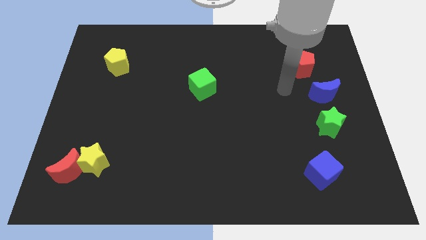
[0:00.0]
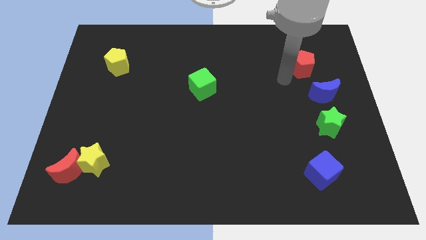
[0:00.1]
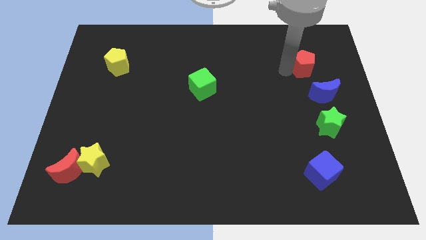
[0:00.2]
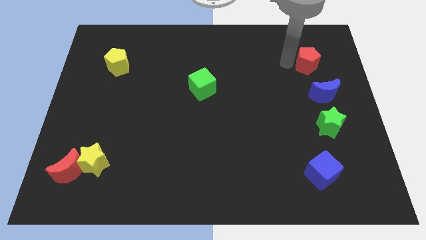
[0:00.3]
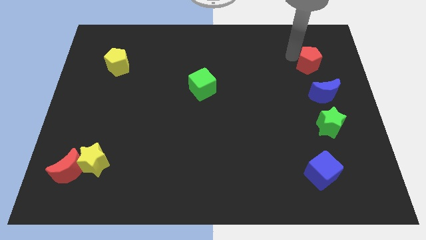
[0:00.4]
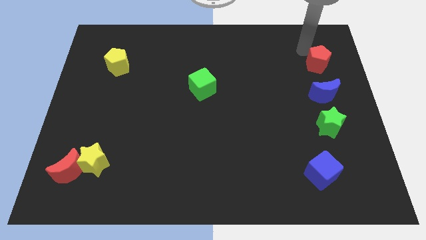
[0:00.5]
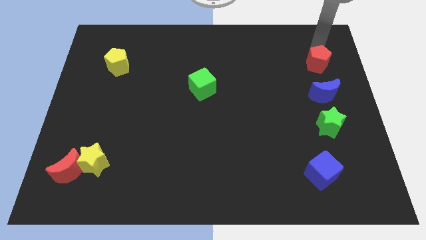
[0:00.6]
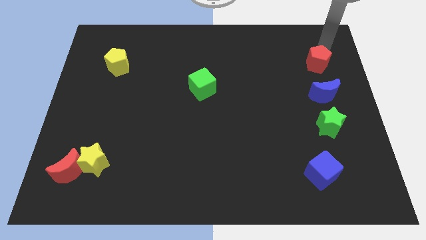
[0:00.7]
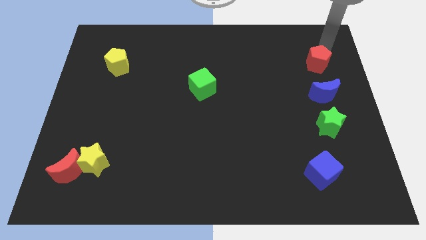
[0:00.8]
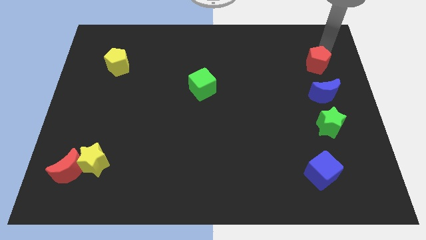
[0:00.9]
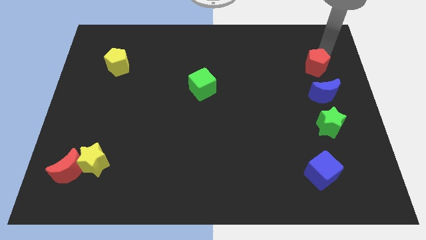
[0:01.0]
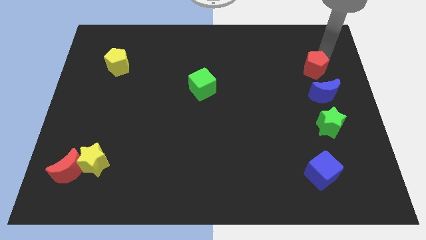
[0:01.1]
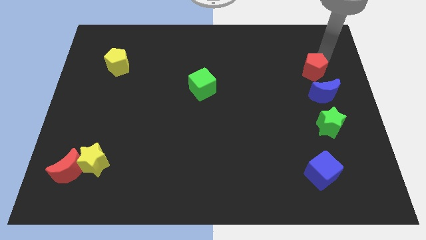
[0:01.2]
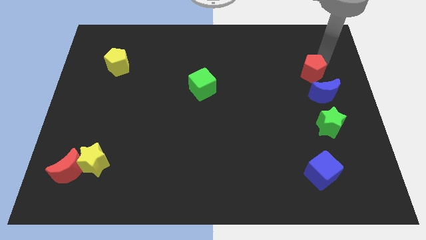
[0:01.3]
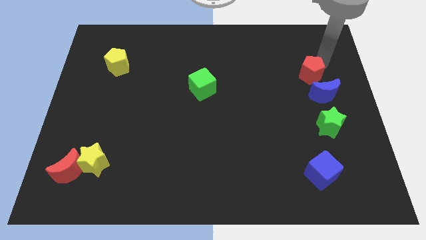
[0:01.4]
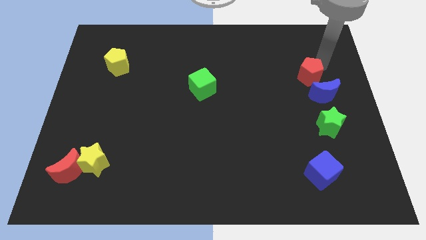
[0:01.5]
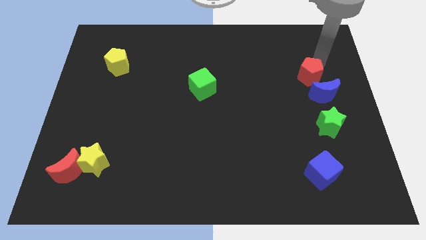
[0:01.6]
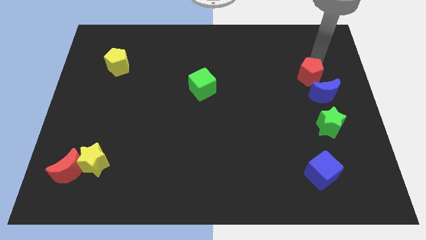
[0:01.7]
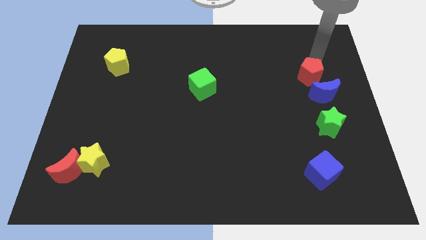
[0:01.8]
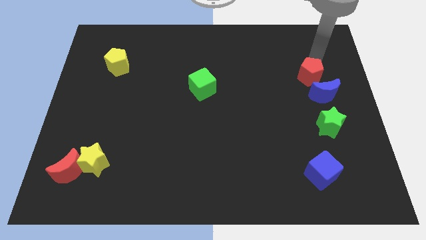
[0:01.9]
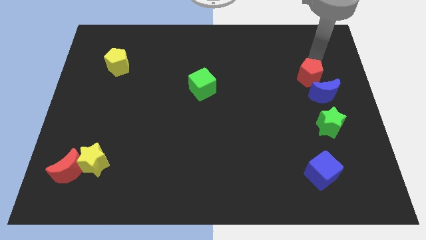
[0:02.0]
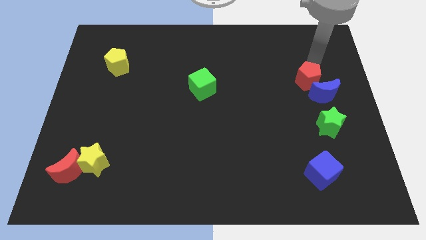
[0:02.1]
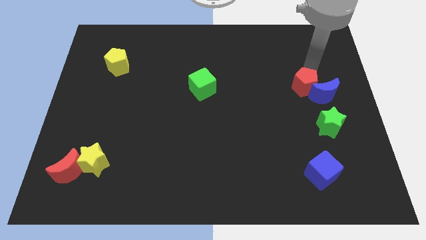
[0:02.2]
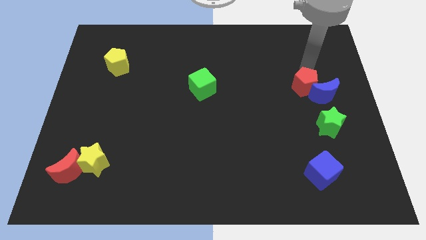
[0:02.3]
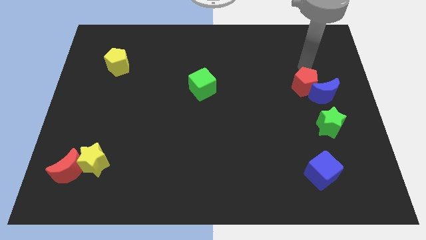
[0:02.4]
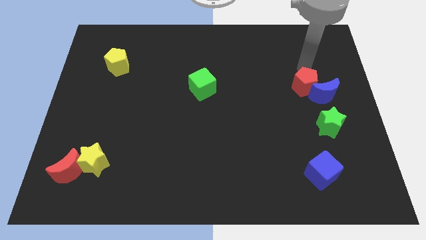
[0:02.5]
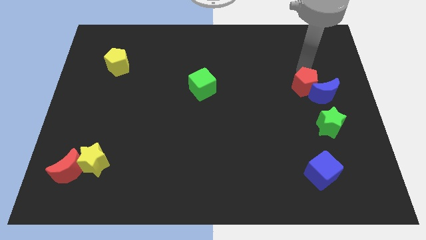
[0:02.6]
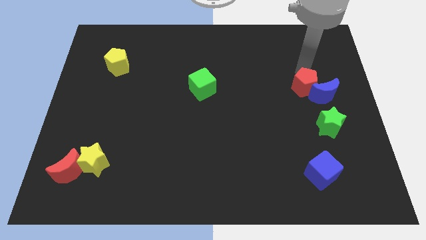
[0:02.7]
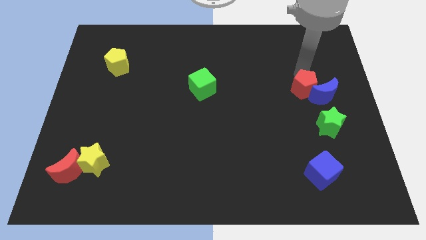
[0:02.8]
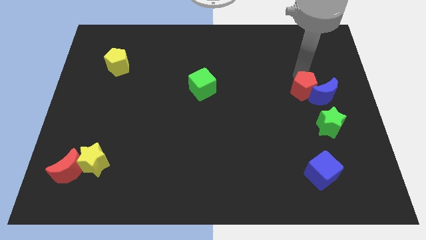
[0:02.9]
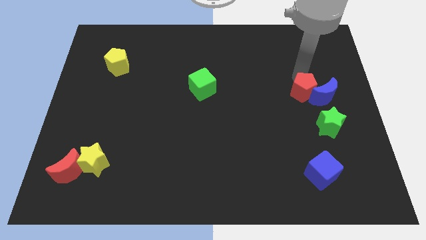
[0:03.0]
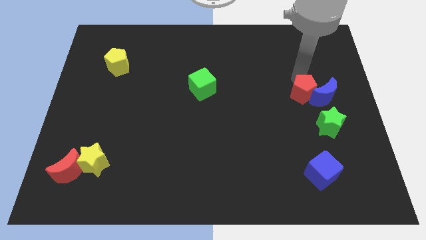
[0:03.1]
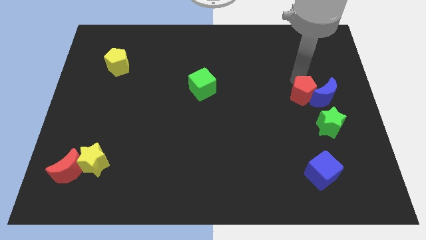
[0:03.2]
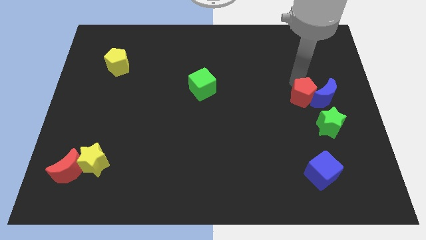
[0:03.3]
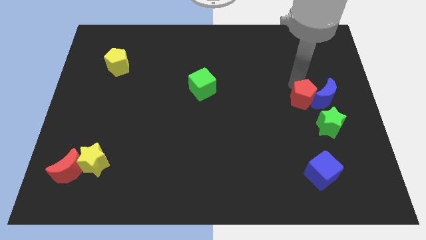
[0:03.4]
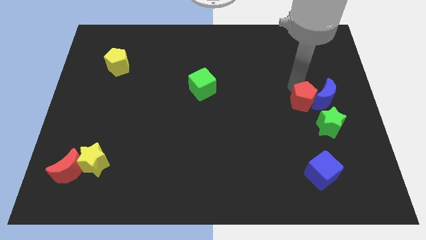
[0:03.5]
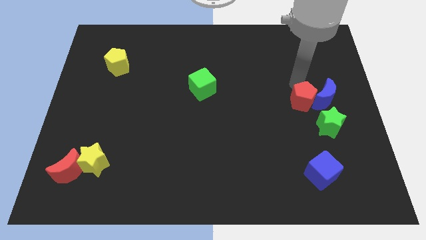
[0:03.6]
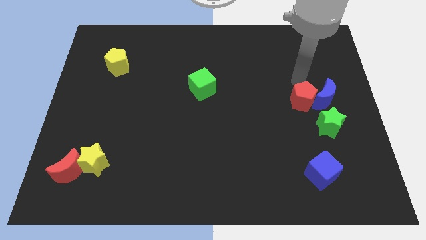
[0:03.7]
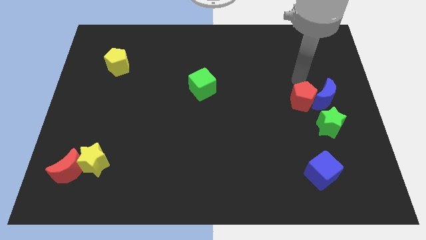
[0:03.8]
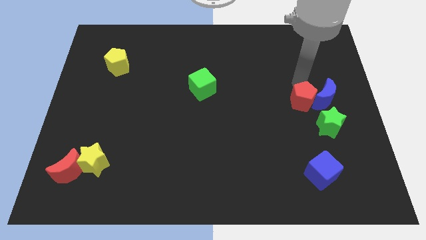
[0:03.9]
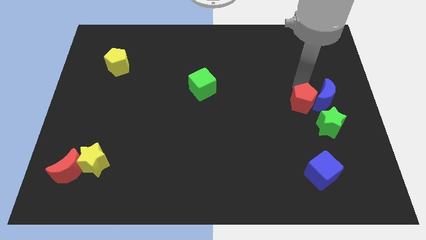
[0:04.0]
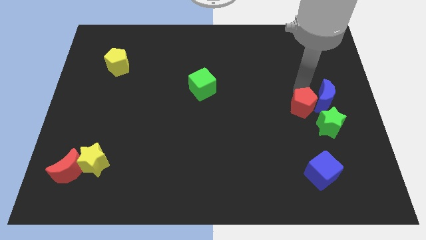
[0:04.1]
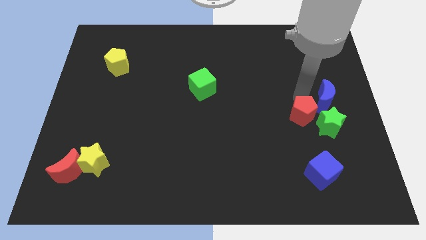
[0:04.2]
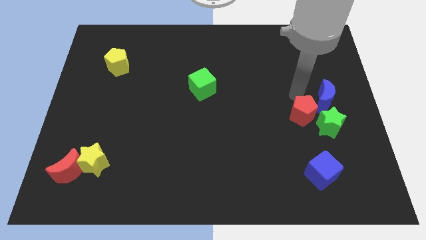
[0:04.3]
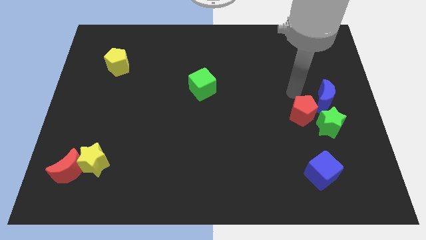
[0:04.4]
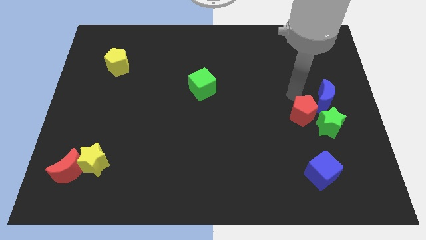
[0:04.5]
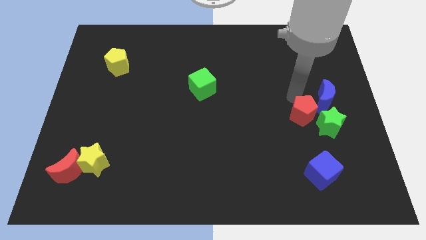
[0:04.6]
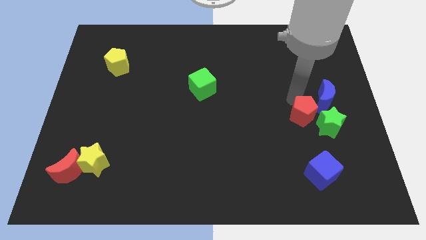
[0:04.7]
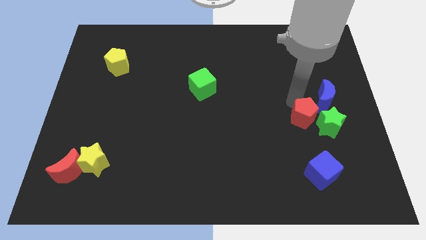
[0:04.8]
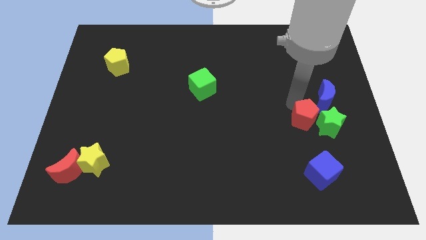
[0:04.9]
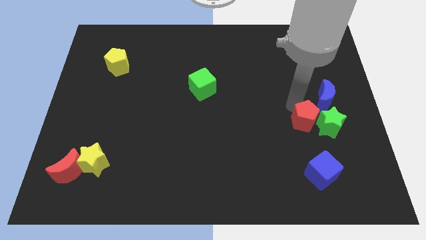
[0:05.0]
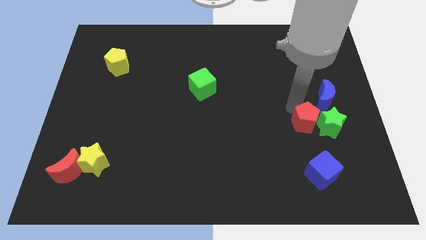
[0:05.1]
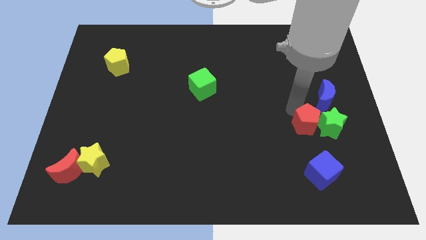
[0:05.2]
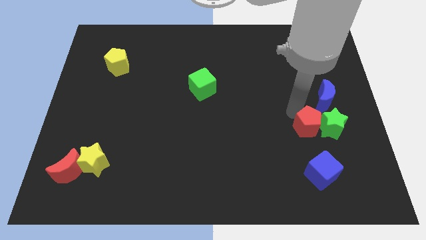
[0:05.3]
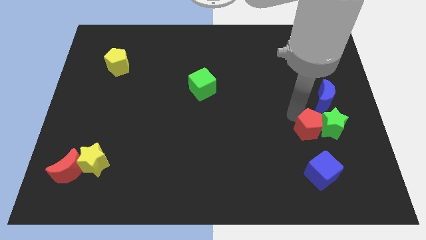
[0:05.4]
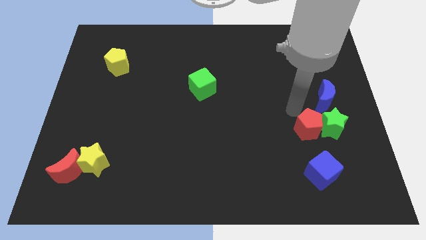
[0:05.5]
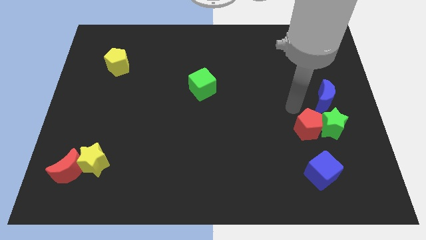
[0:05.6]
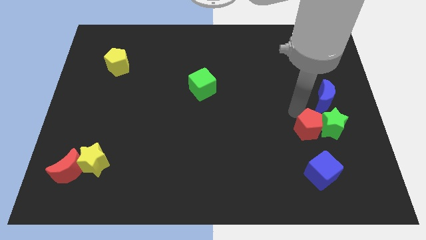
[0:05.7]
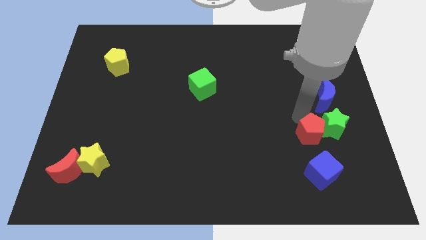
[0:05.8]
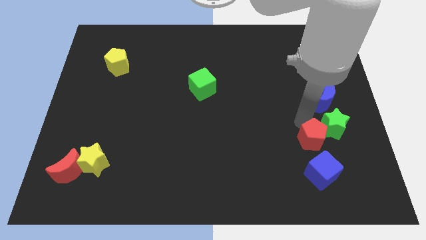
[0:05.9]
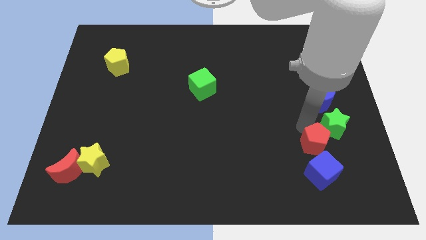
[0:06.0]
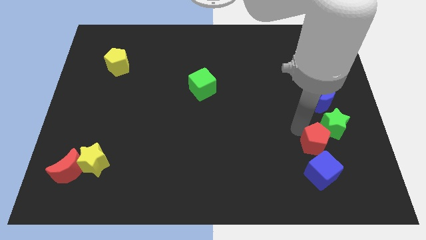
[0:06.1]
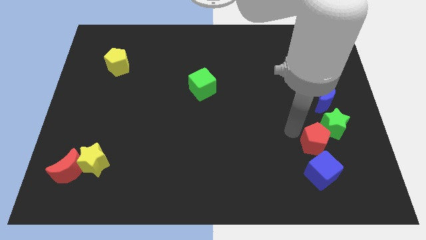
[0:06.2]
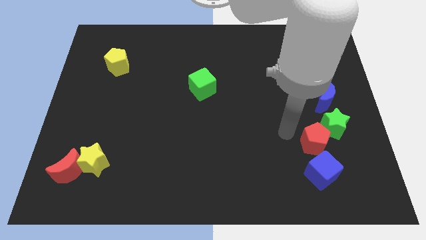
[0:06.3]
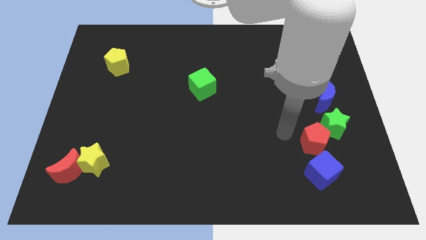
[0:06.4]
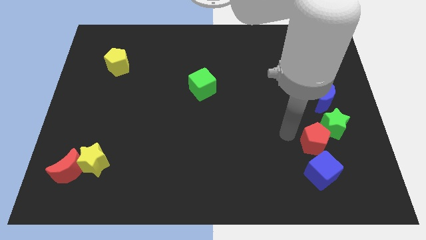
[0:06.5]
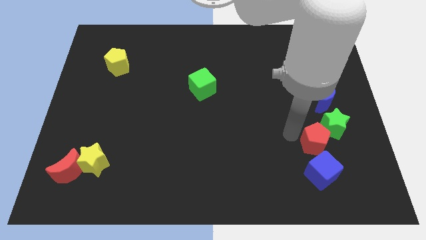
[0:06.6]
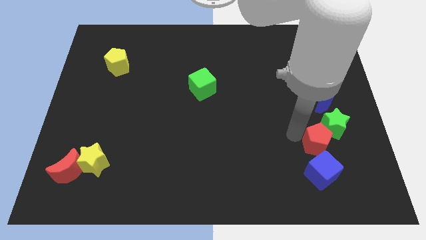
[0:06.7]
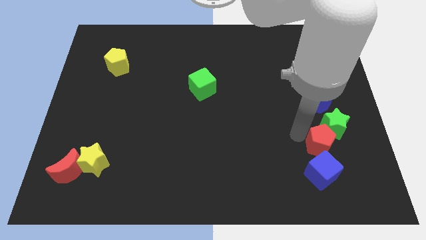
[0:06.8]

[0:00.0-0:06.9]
slide the red pentagon to the top right of the blue cube

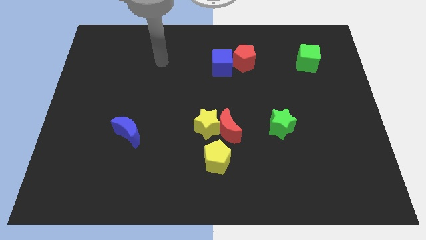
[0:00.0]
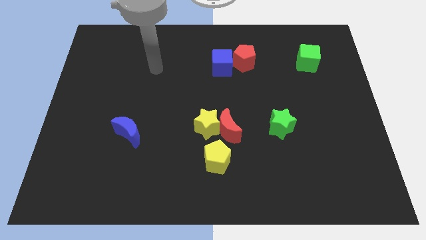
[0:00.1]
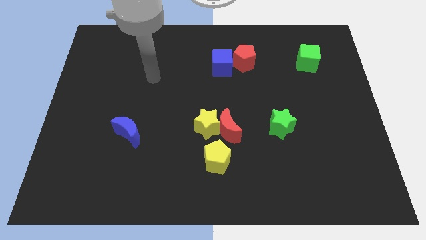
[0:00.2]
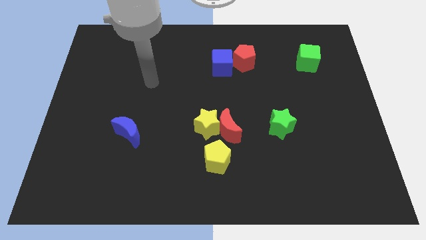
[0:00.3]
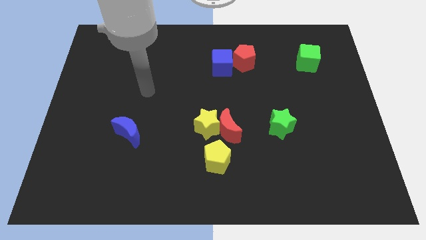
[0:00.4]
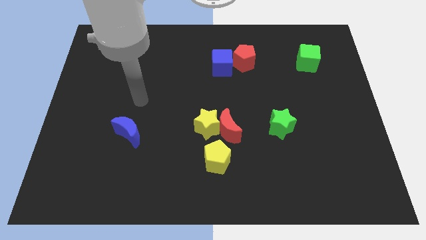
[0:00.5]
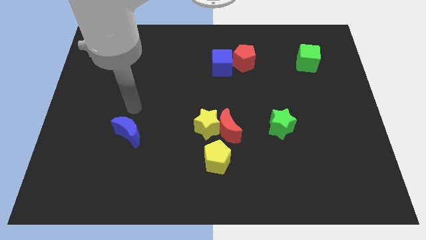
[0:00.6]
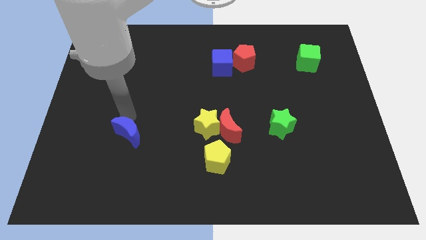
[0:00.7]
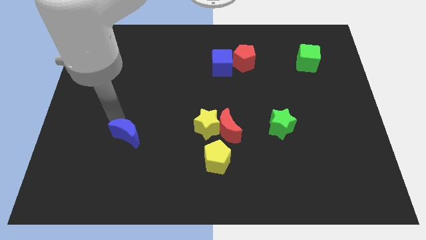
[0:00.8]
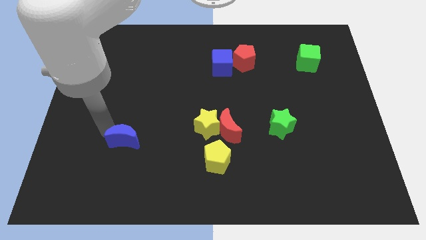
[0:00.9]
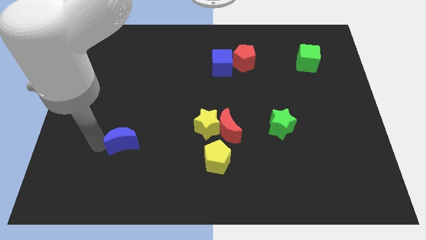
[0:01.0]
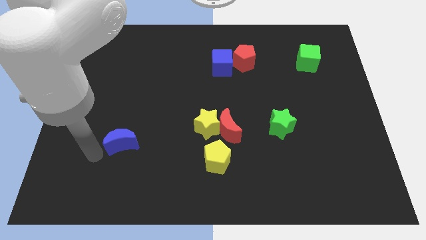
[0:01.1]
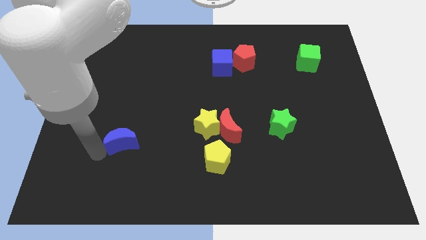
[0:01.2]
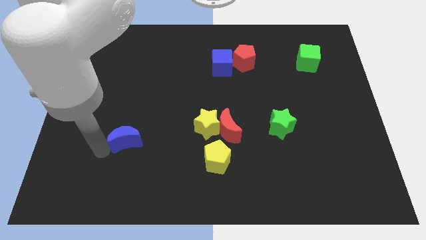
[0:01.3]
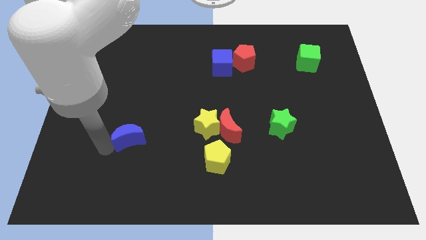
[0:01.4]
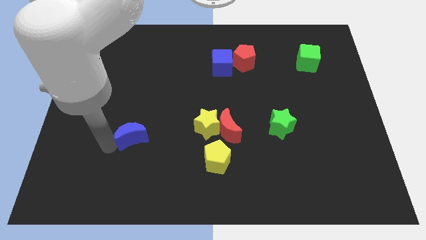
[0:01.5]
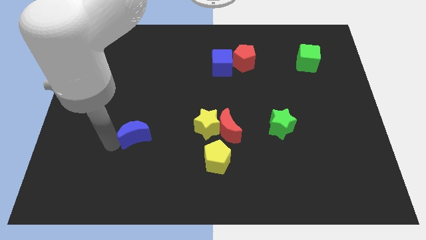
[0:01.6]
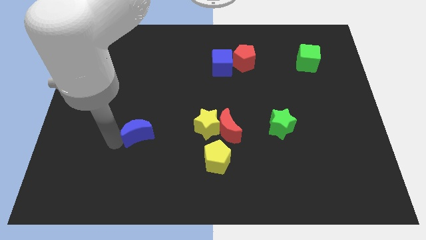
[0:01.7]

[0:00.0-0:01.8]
move the blue moon to the left side of the yellow star
